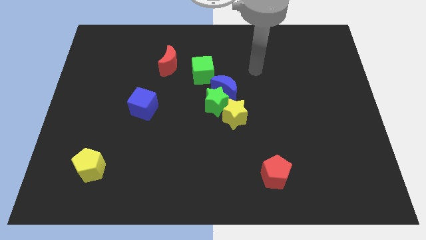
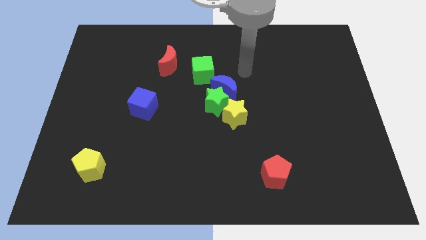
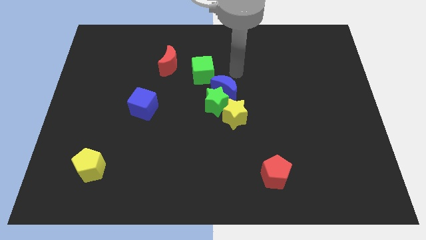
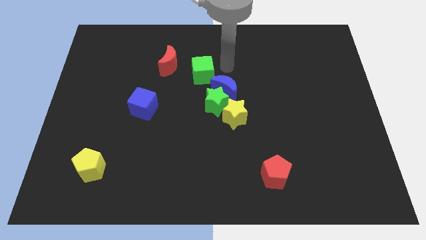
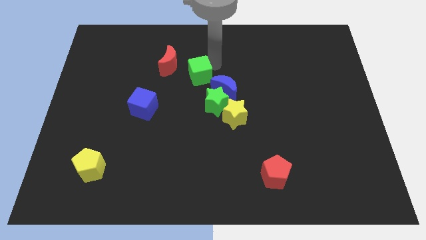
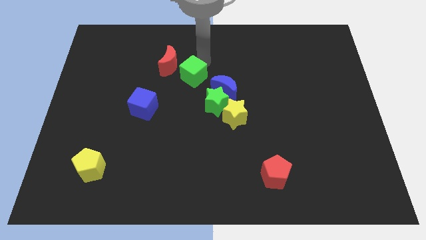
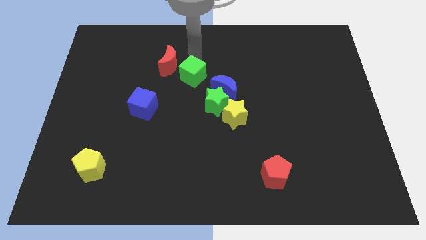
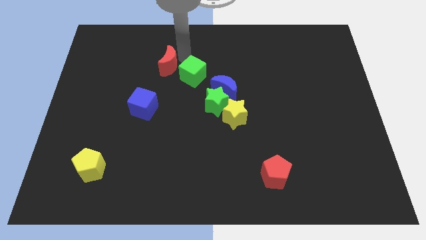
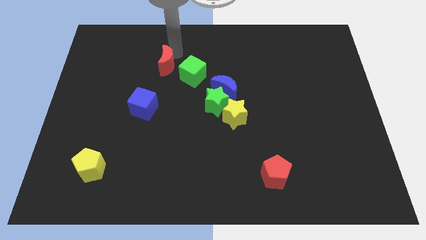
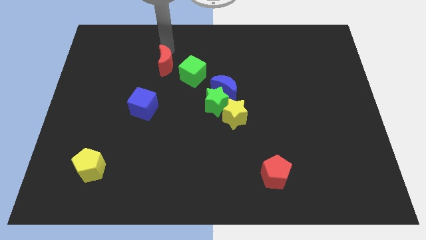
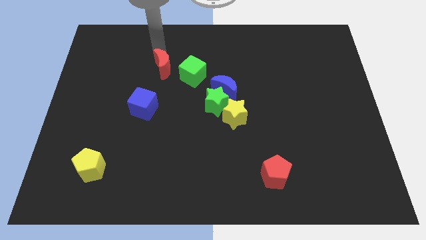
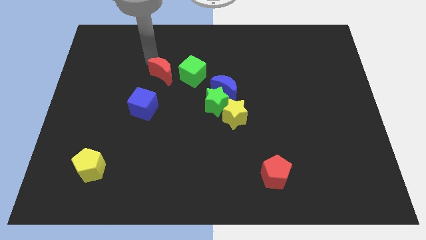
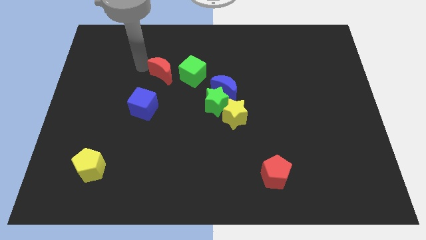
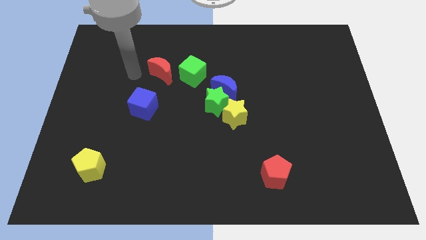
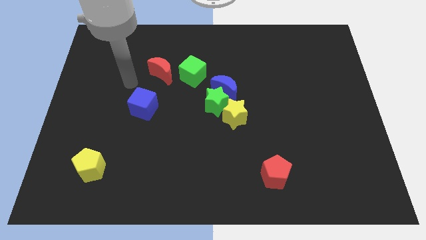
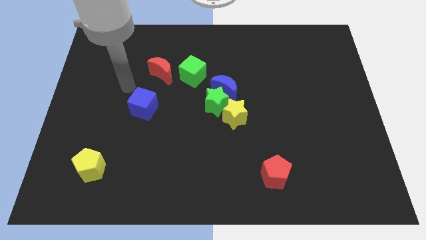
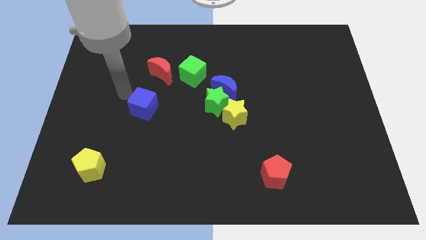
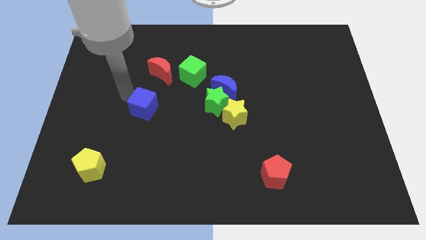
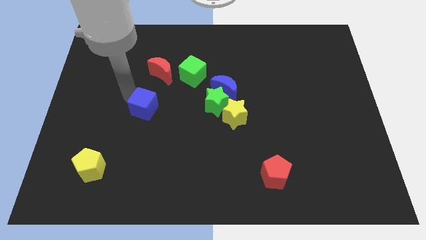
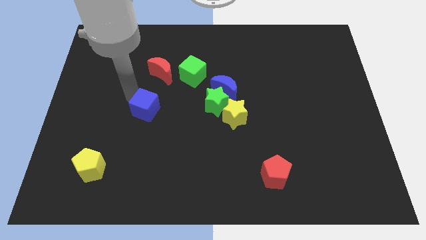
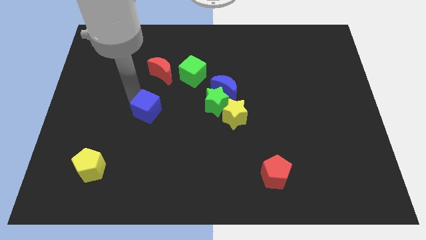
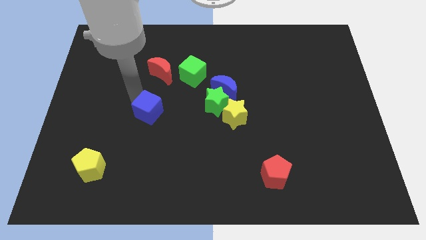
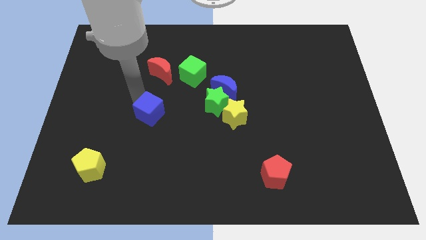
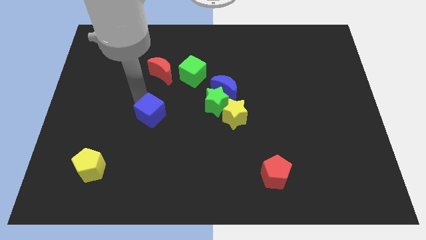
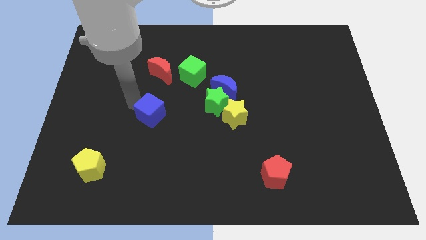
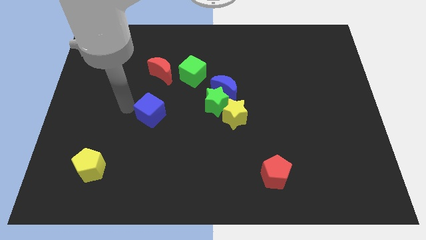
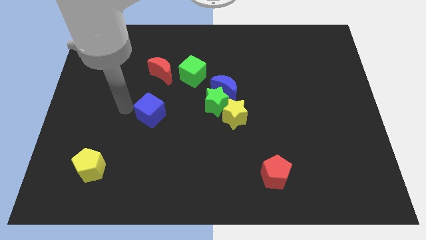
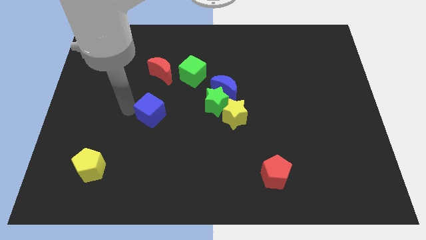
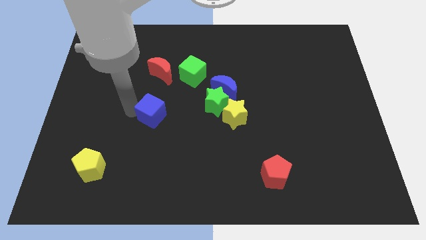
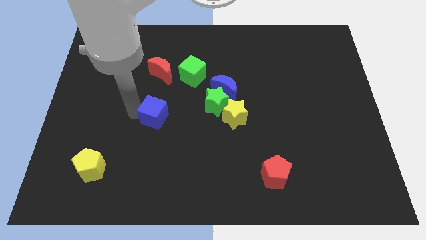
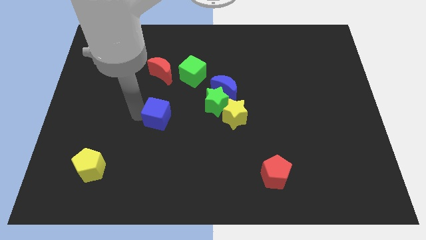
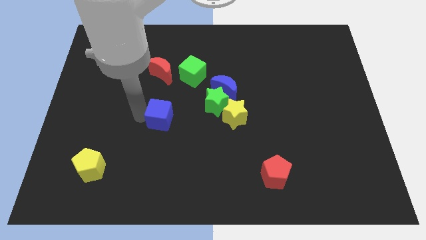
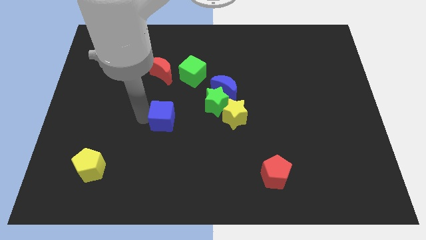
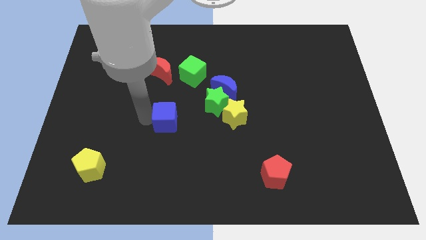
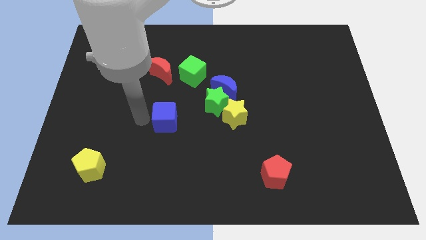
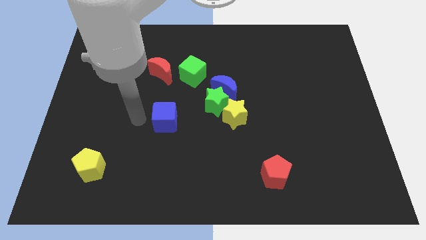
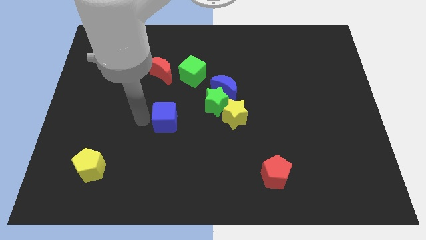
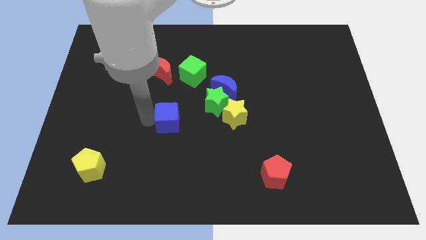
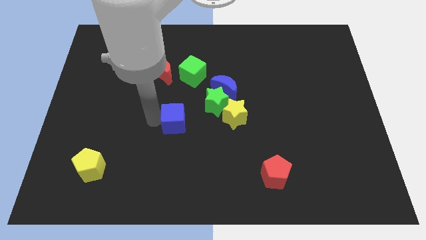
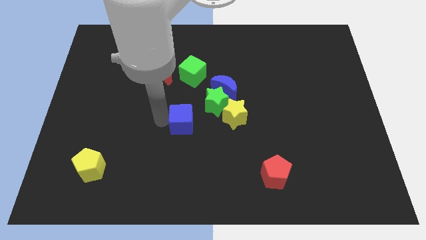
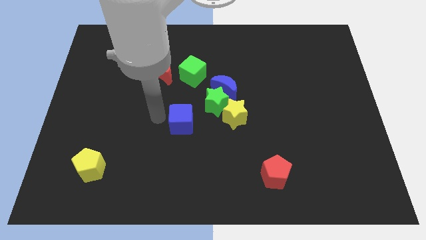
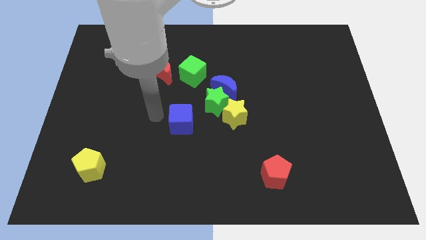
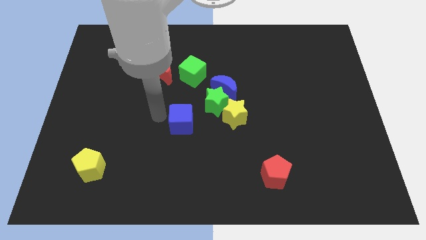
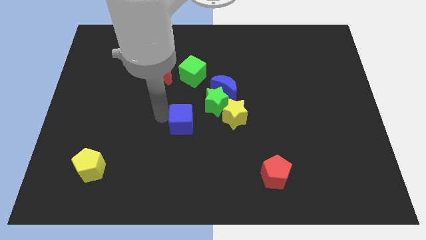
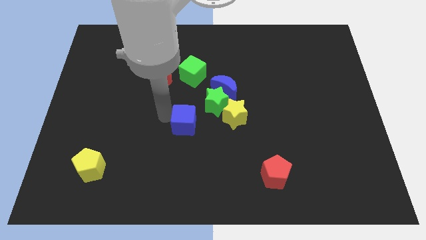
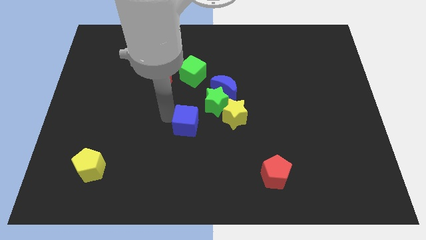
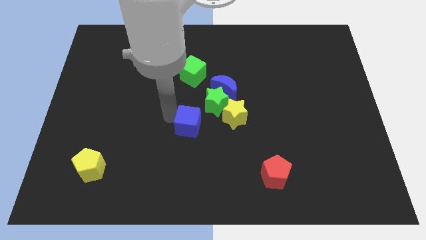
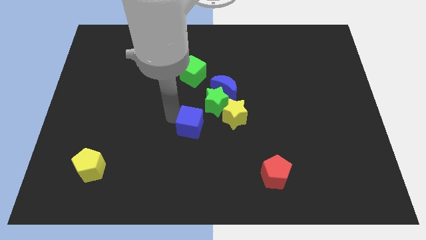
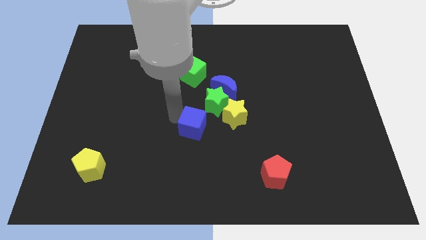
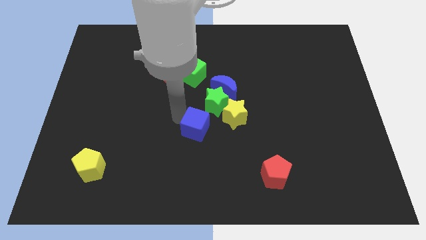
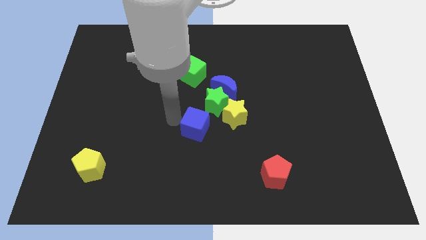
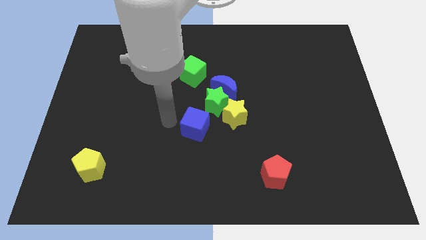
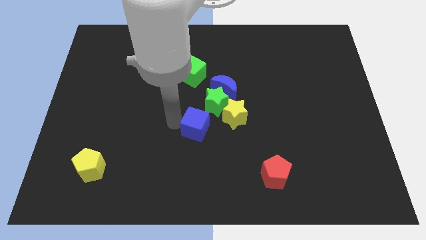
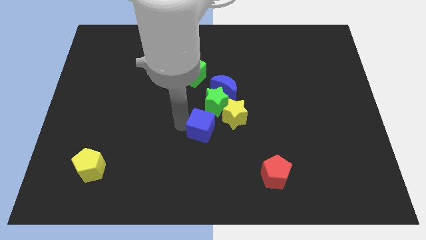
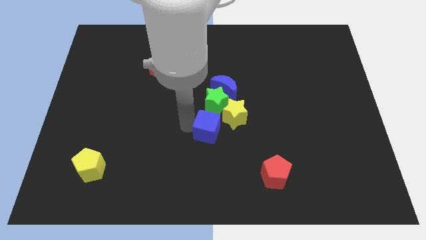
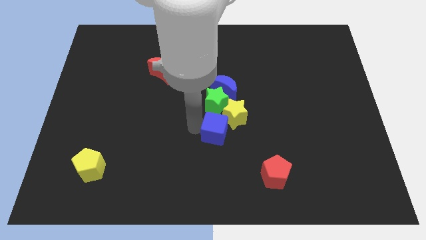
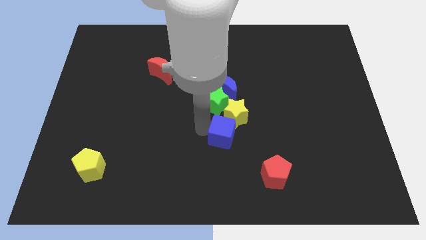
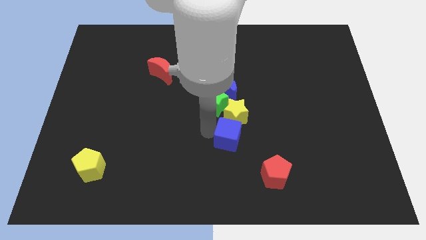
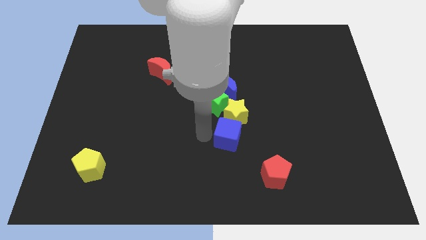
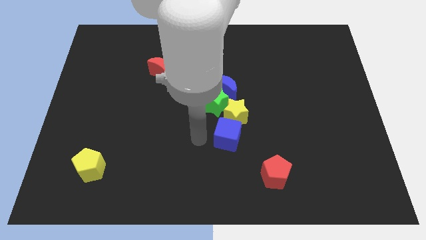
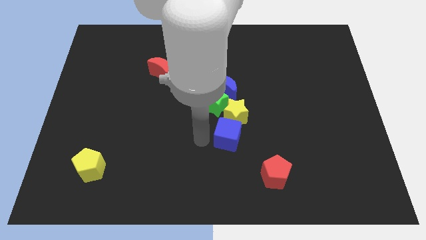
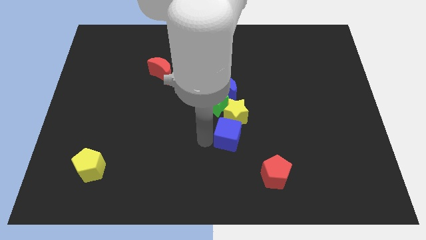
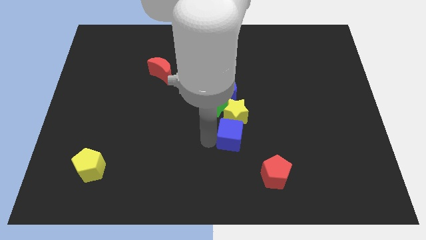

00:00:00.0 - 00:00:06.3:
put the blue cube to the bottom right of the yellow star
